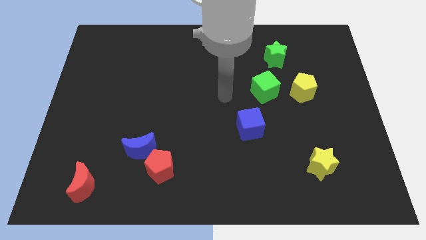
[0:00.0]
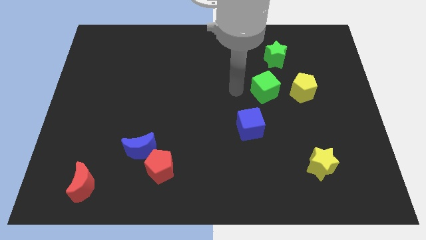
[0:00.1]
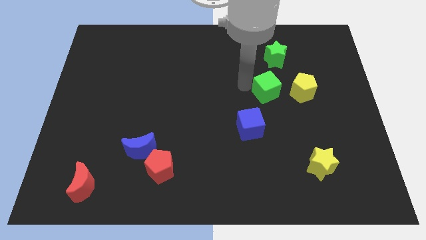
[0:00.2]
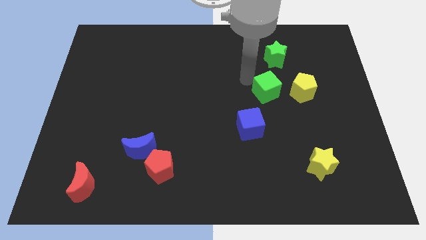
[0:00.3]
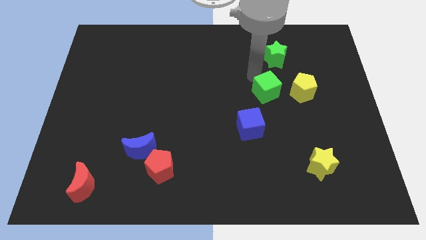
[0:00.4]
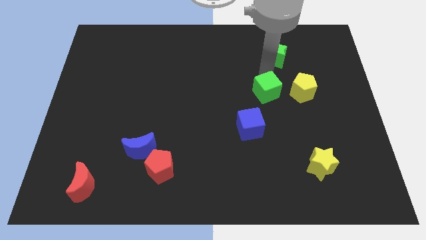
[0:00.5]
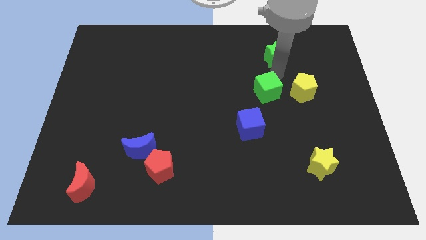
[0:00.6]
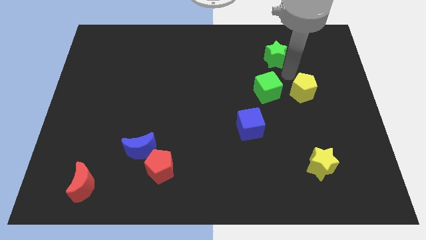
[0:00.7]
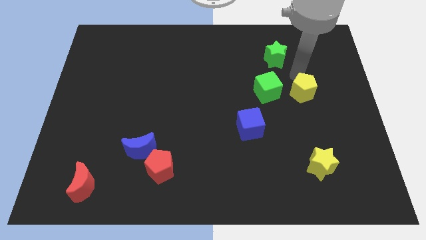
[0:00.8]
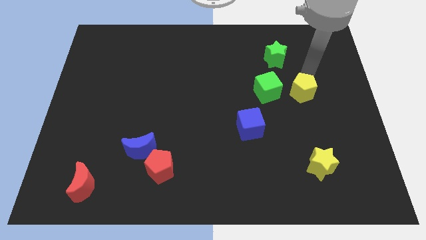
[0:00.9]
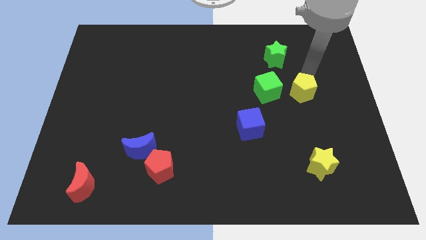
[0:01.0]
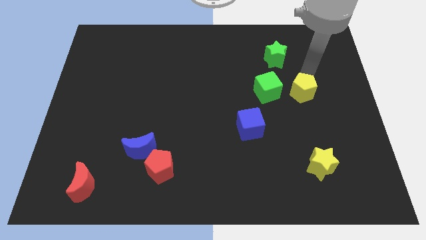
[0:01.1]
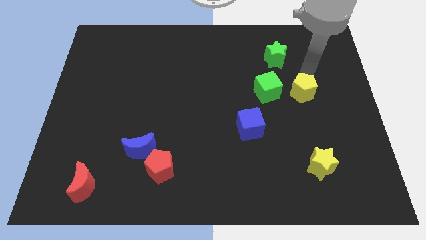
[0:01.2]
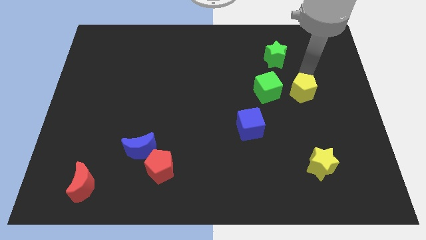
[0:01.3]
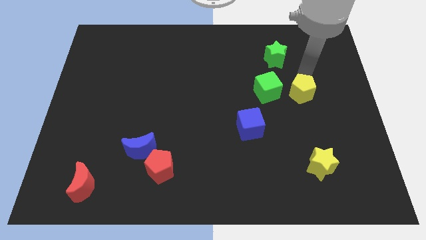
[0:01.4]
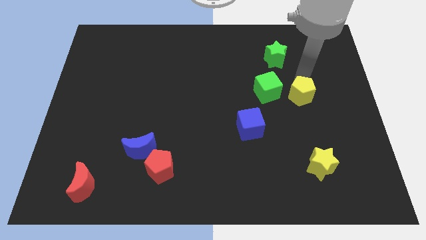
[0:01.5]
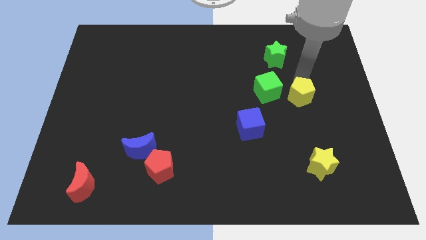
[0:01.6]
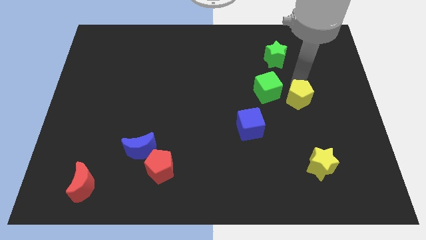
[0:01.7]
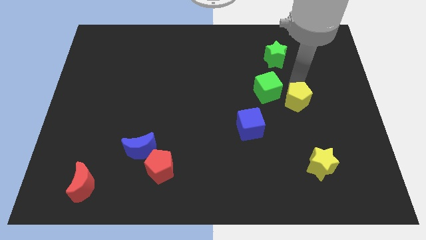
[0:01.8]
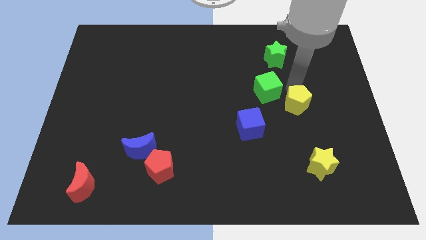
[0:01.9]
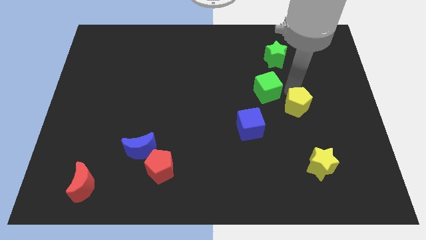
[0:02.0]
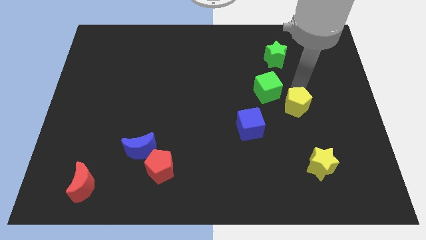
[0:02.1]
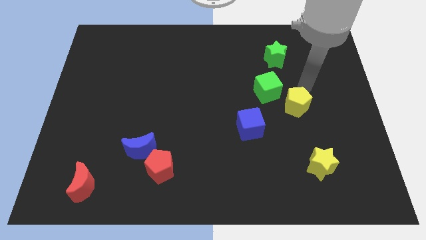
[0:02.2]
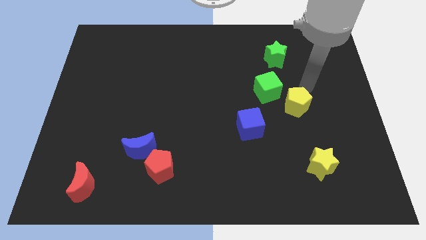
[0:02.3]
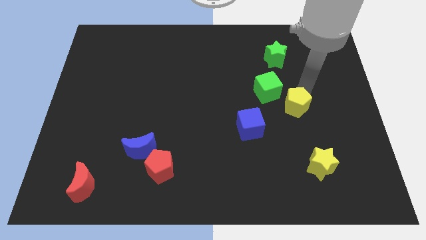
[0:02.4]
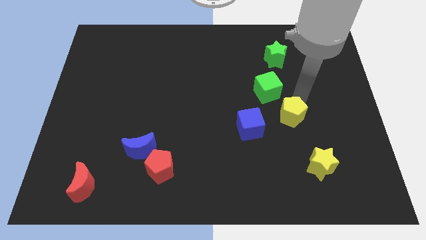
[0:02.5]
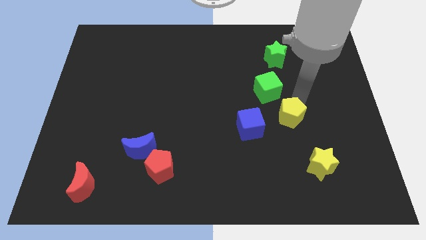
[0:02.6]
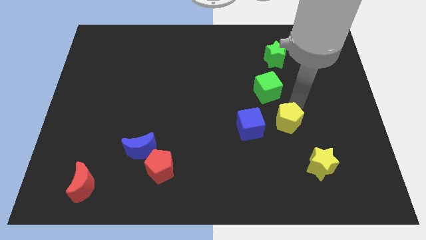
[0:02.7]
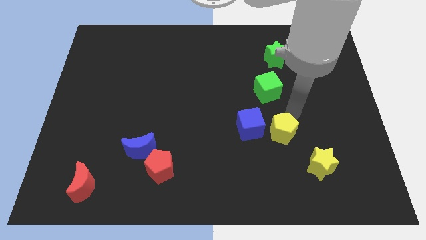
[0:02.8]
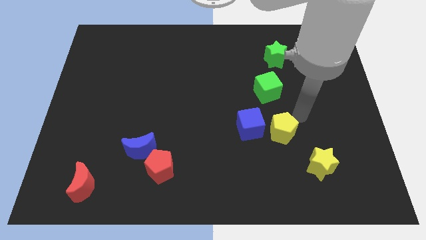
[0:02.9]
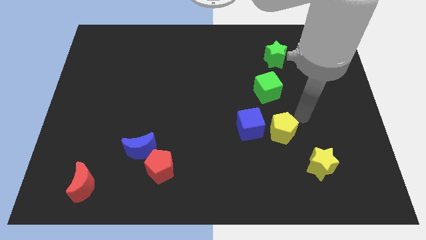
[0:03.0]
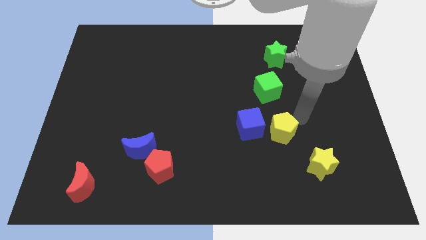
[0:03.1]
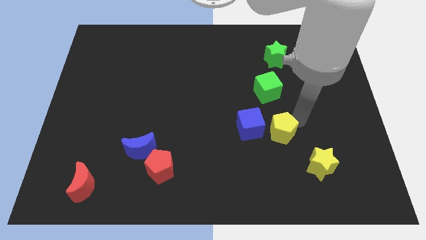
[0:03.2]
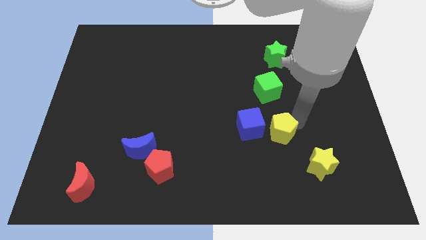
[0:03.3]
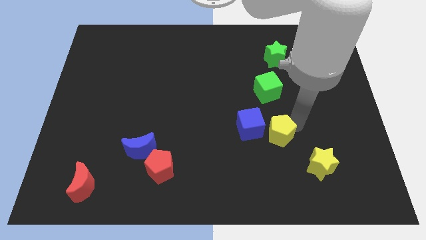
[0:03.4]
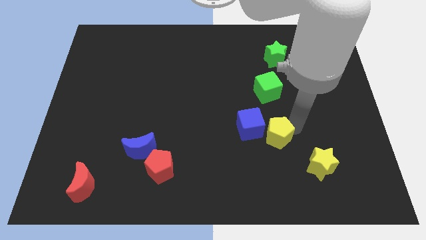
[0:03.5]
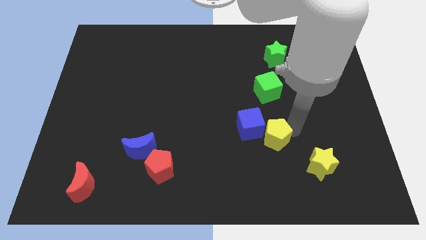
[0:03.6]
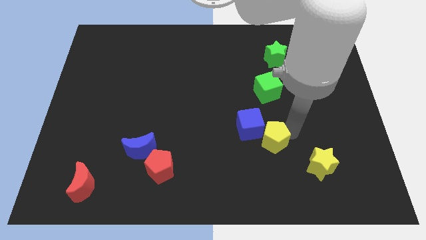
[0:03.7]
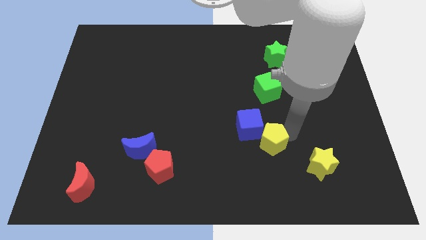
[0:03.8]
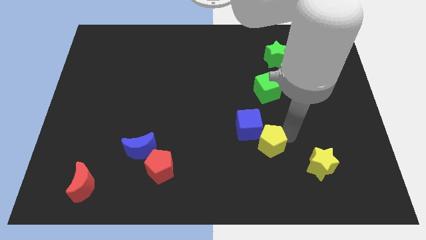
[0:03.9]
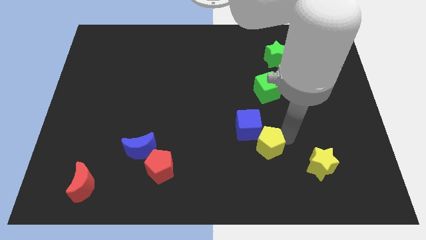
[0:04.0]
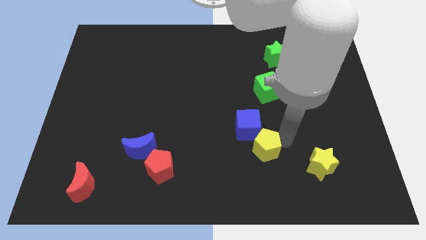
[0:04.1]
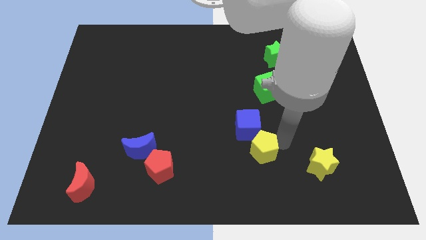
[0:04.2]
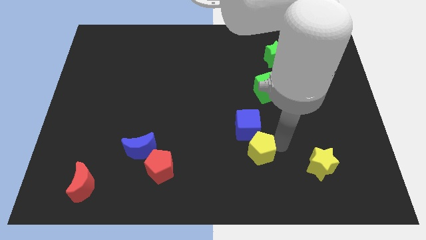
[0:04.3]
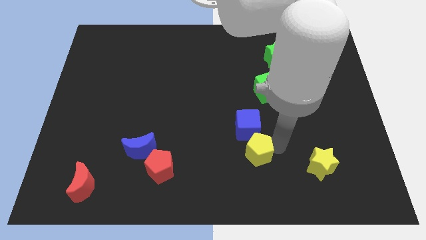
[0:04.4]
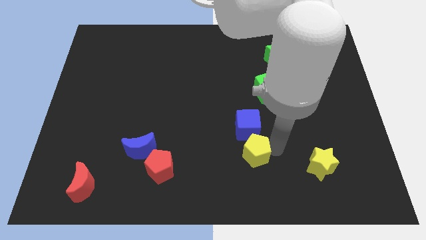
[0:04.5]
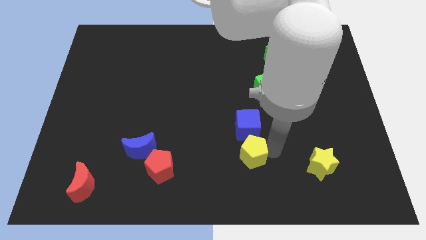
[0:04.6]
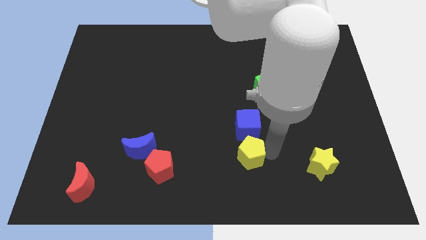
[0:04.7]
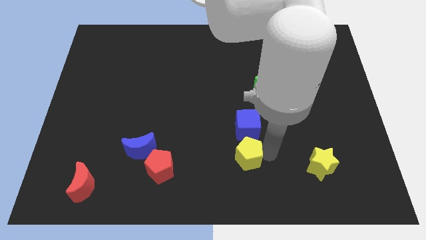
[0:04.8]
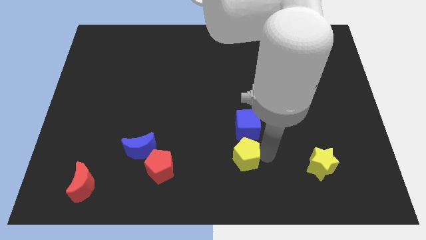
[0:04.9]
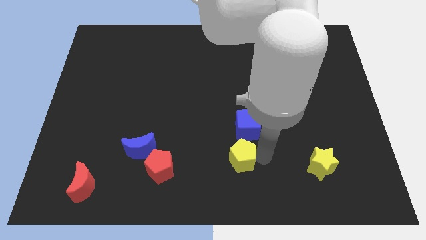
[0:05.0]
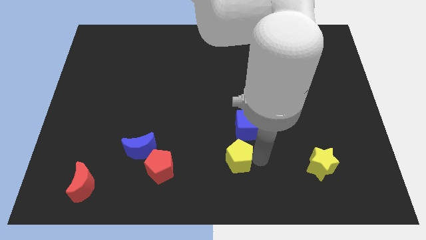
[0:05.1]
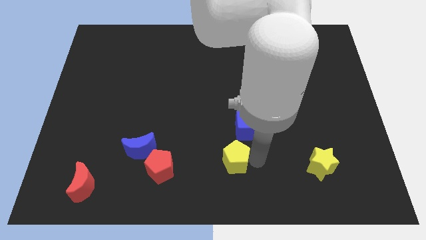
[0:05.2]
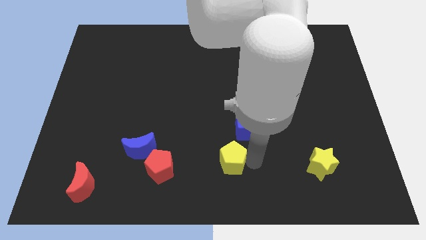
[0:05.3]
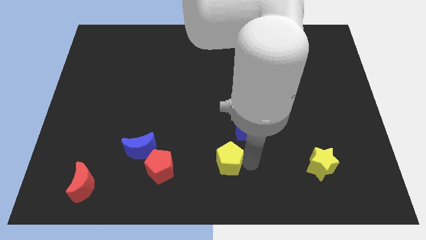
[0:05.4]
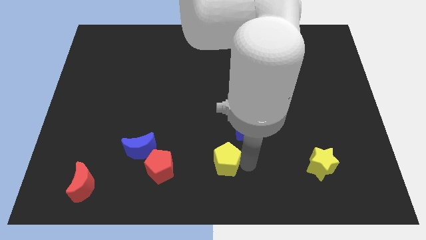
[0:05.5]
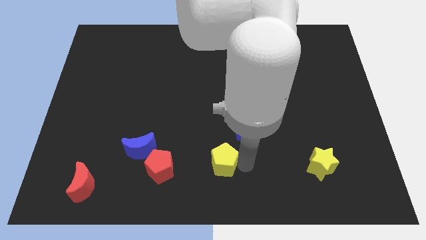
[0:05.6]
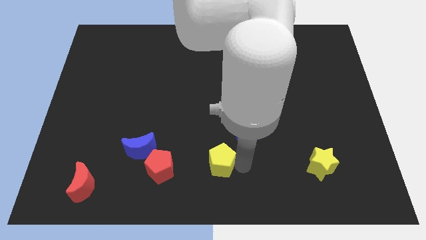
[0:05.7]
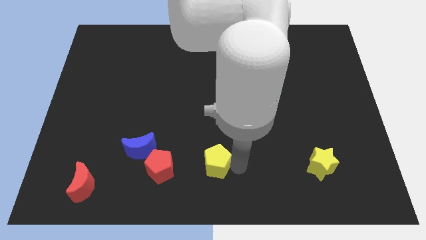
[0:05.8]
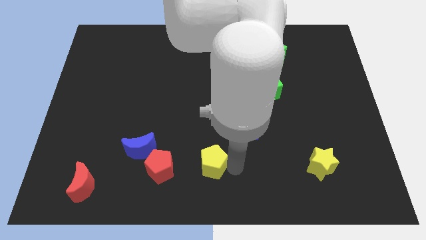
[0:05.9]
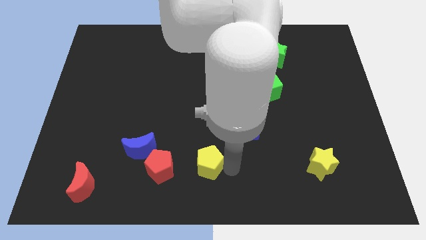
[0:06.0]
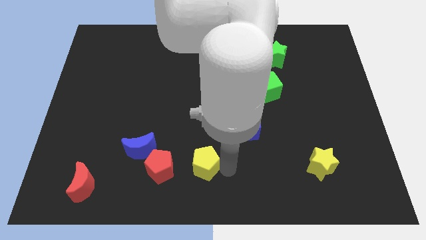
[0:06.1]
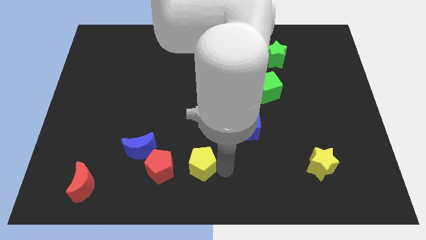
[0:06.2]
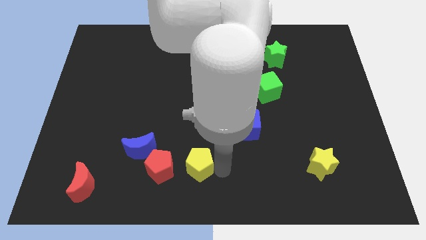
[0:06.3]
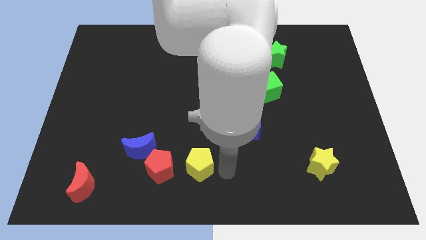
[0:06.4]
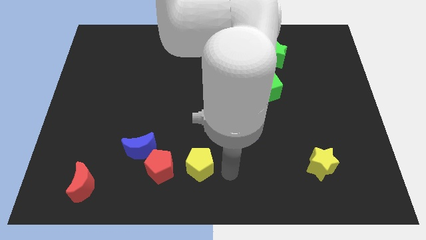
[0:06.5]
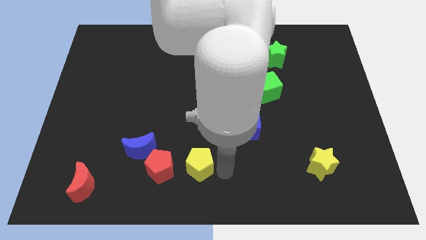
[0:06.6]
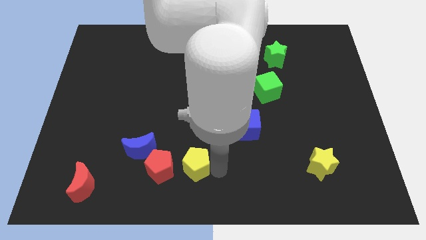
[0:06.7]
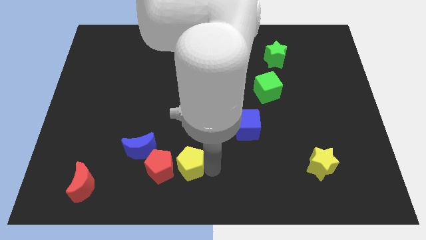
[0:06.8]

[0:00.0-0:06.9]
put the yellow pentagon to the red pentagon
